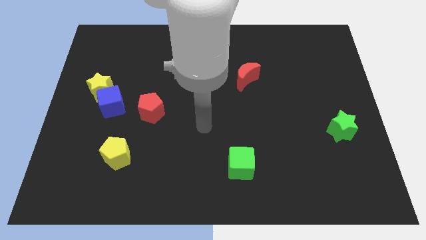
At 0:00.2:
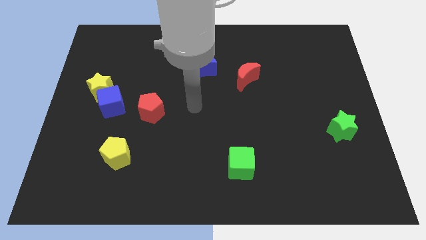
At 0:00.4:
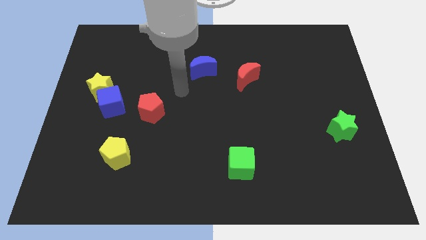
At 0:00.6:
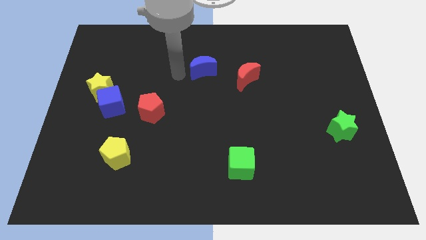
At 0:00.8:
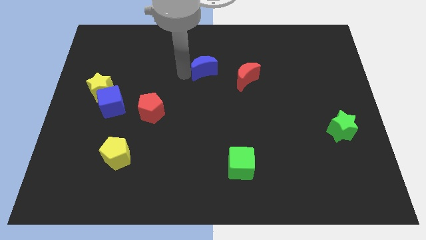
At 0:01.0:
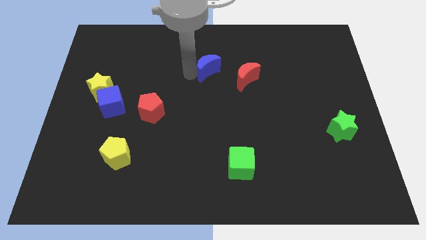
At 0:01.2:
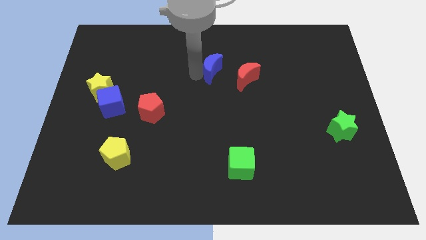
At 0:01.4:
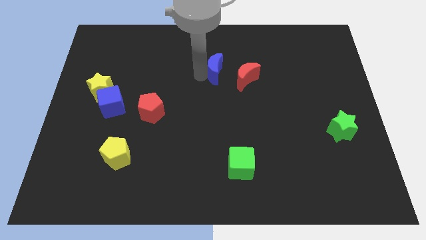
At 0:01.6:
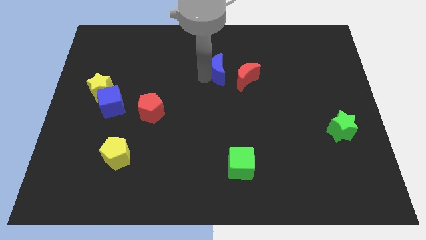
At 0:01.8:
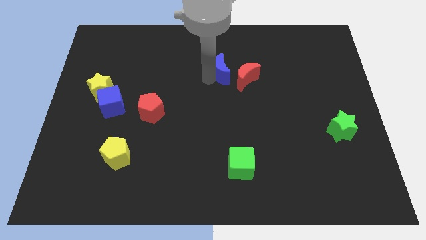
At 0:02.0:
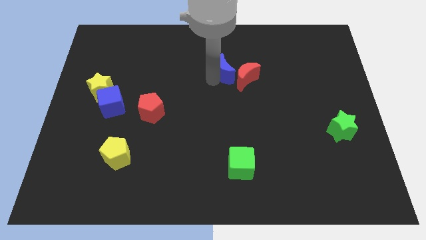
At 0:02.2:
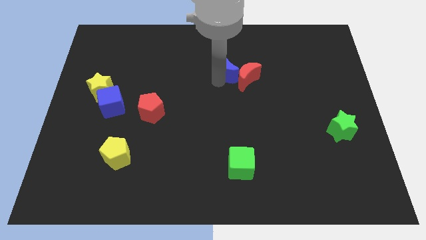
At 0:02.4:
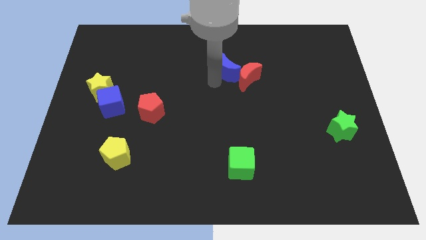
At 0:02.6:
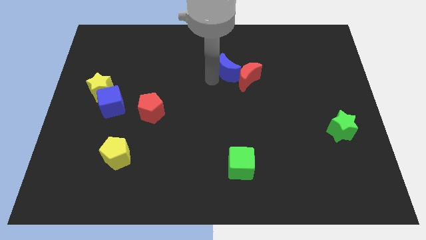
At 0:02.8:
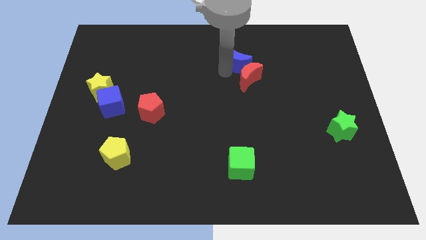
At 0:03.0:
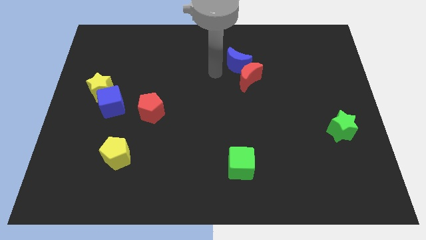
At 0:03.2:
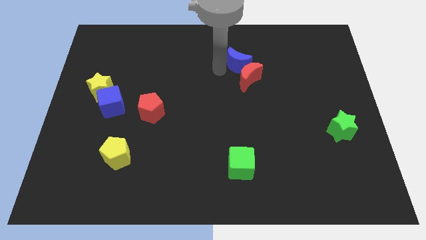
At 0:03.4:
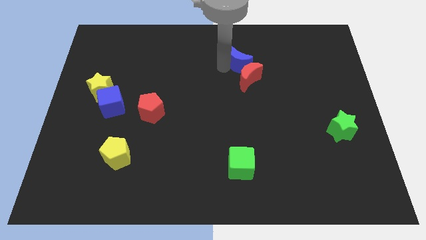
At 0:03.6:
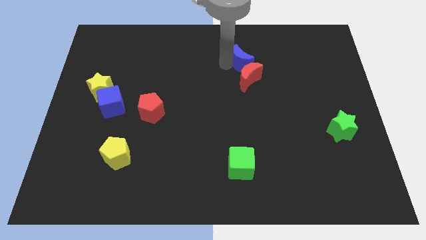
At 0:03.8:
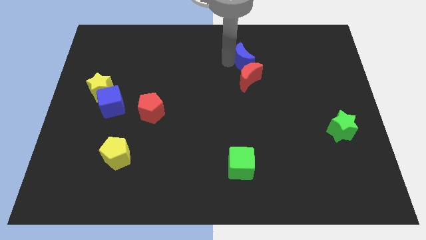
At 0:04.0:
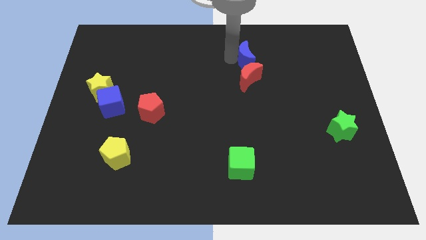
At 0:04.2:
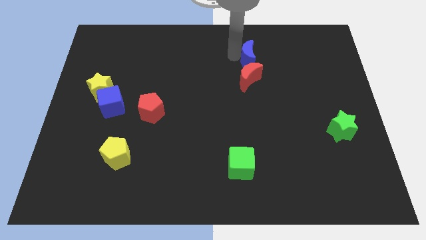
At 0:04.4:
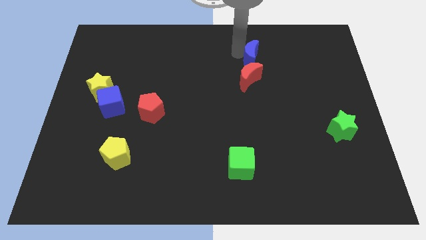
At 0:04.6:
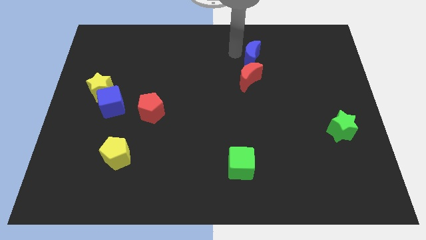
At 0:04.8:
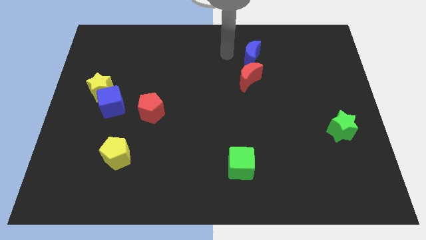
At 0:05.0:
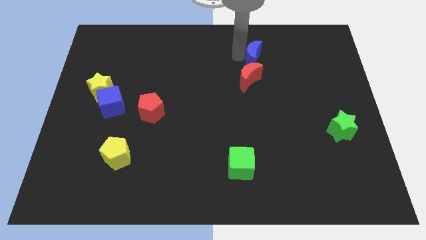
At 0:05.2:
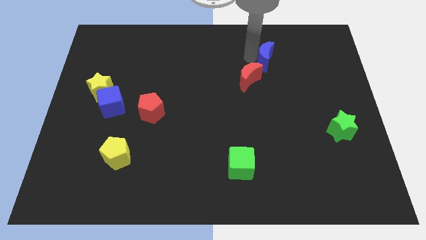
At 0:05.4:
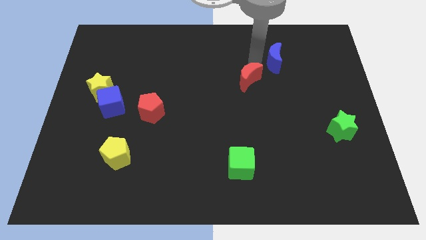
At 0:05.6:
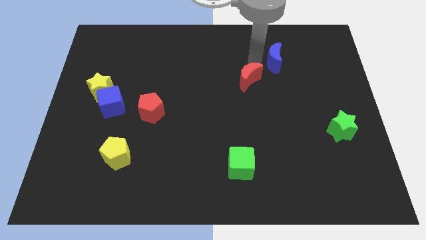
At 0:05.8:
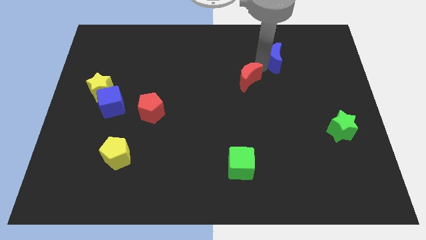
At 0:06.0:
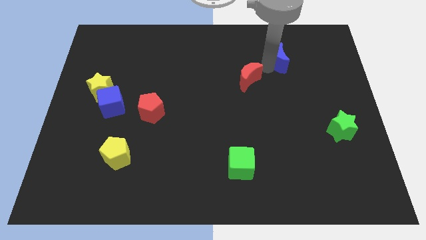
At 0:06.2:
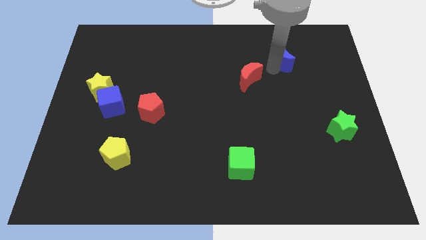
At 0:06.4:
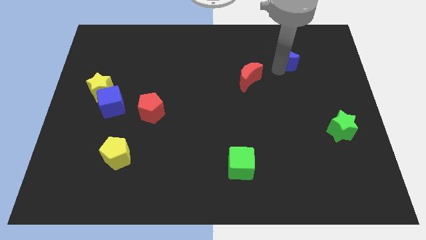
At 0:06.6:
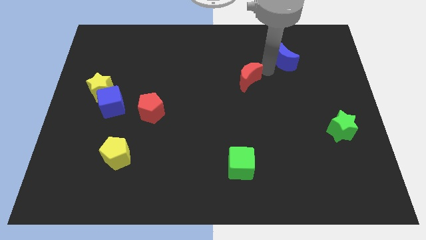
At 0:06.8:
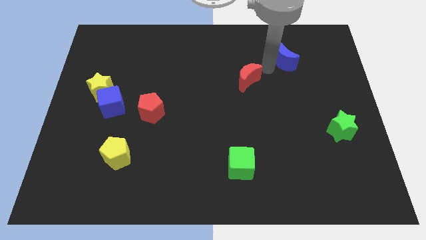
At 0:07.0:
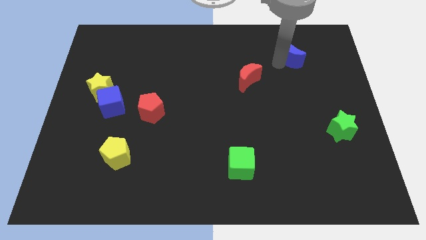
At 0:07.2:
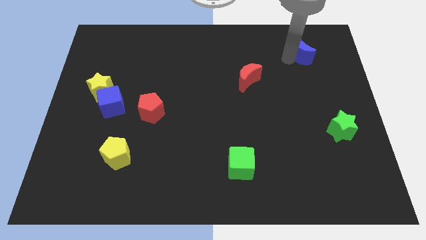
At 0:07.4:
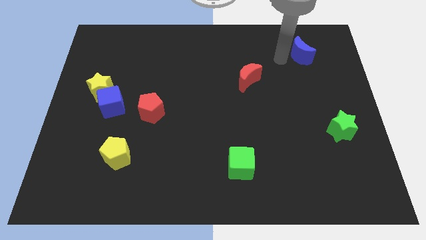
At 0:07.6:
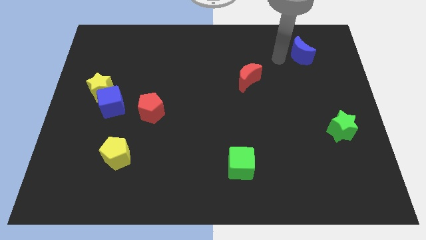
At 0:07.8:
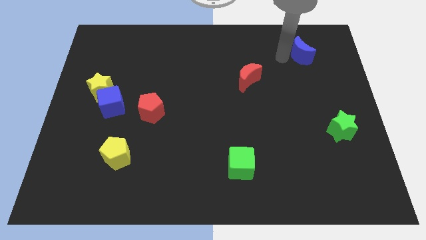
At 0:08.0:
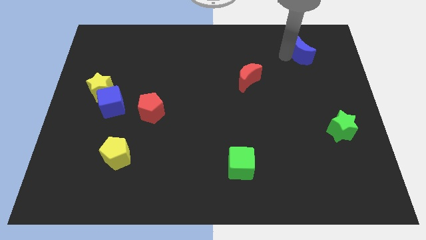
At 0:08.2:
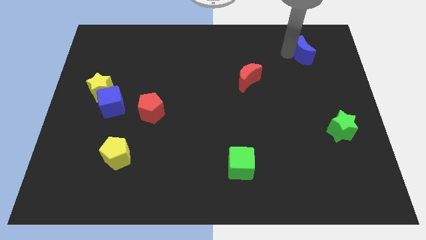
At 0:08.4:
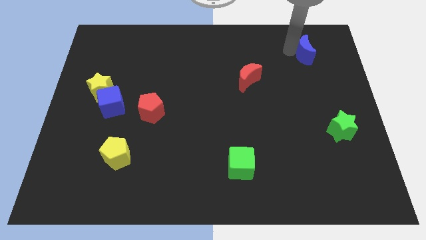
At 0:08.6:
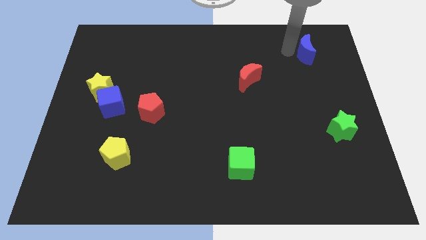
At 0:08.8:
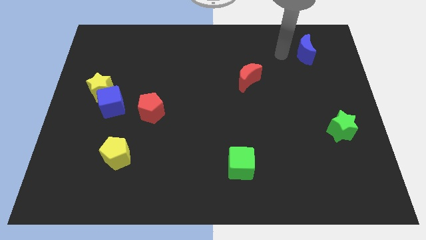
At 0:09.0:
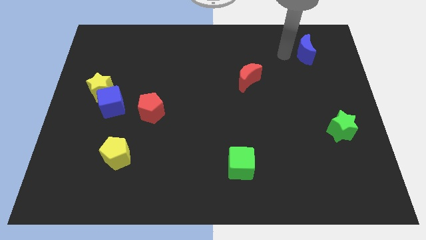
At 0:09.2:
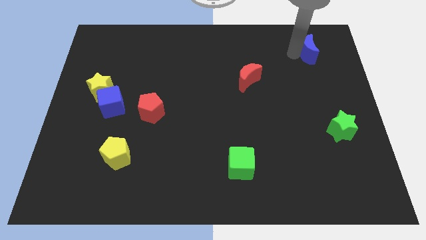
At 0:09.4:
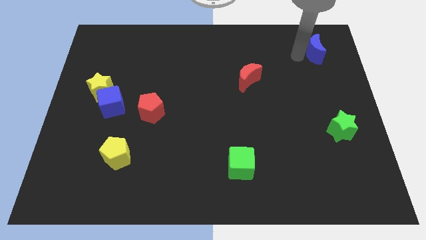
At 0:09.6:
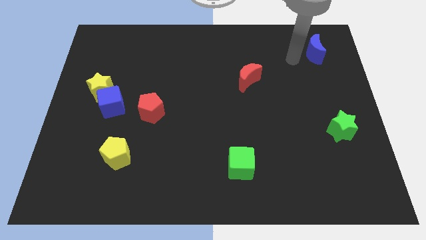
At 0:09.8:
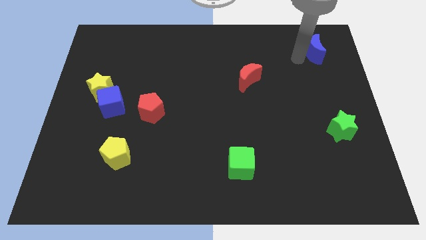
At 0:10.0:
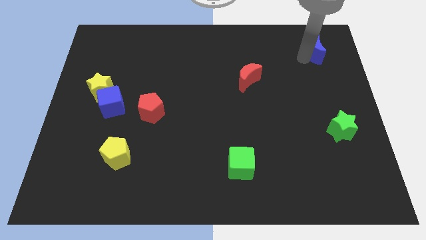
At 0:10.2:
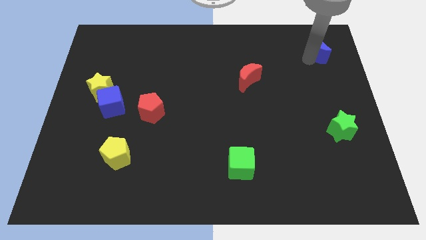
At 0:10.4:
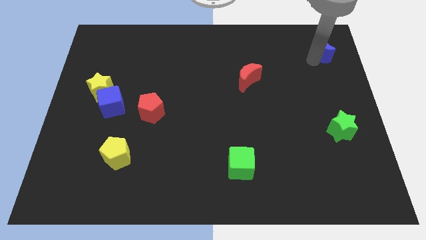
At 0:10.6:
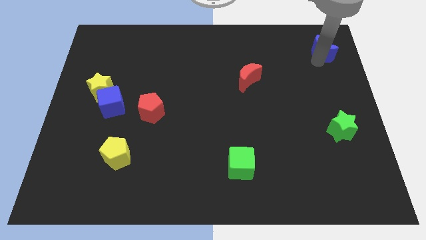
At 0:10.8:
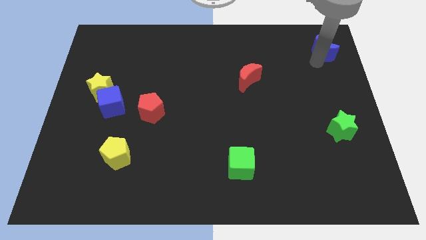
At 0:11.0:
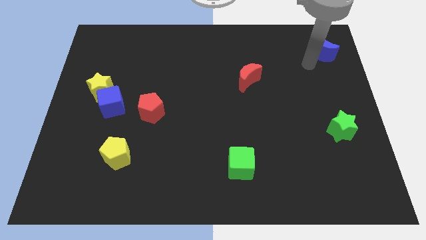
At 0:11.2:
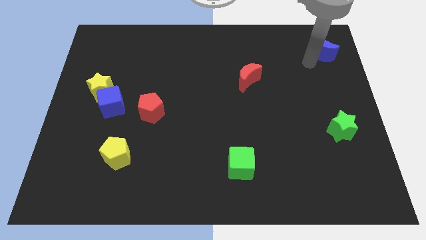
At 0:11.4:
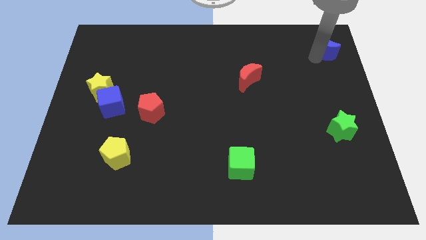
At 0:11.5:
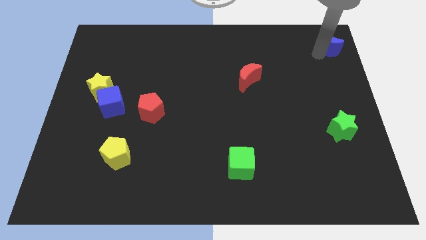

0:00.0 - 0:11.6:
push the blue moon to the upper right corner

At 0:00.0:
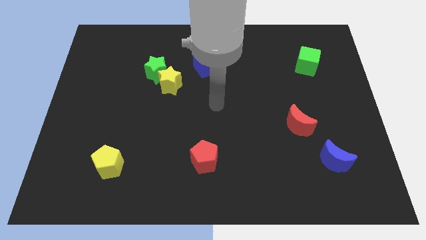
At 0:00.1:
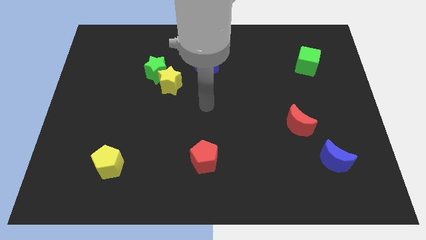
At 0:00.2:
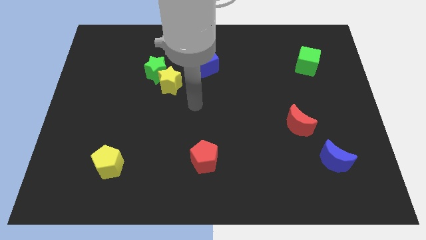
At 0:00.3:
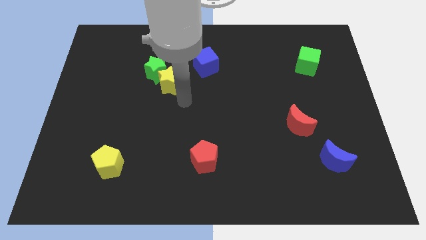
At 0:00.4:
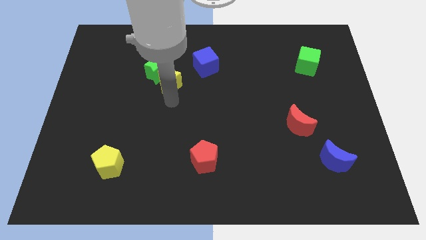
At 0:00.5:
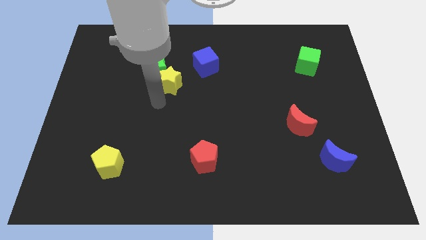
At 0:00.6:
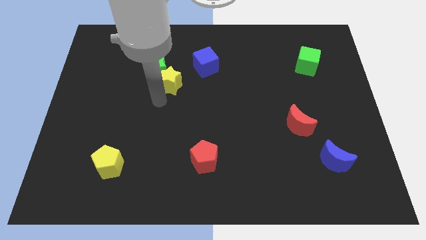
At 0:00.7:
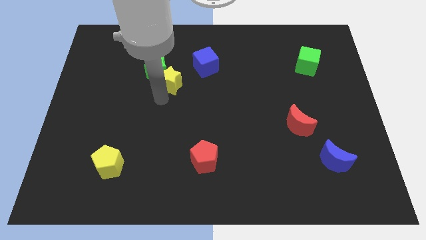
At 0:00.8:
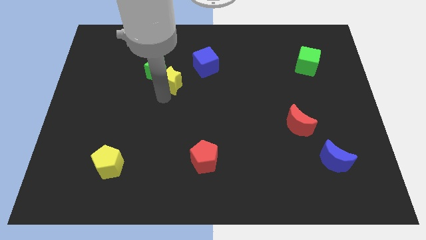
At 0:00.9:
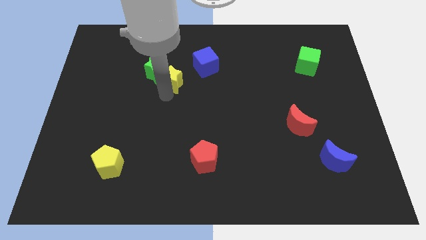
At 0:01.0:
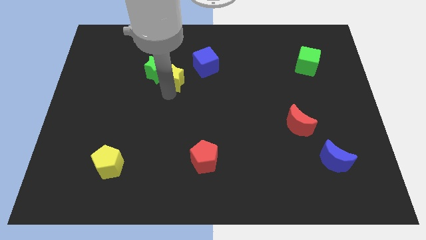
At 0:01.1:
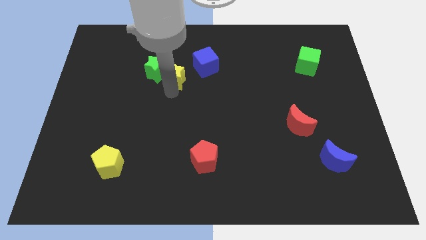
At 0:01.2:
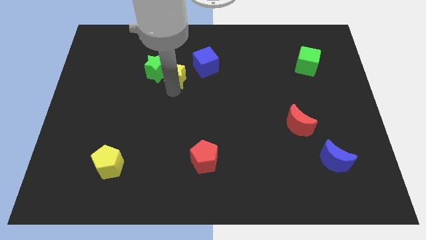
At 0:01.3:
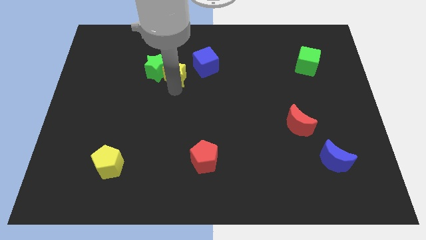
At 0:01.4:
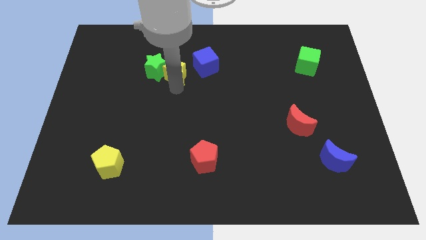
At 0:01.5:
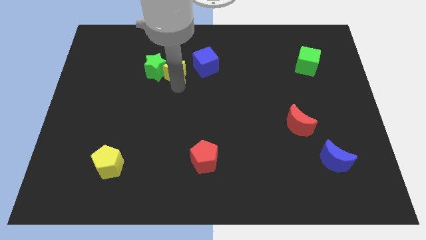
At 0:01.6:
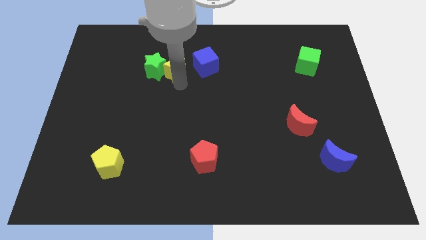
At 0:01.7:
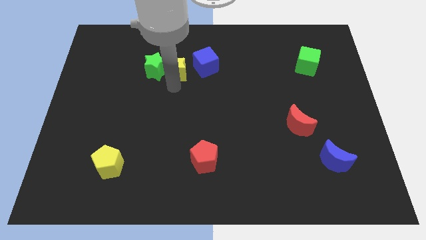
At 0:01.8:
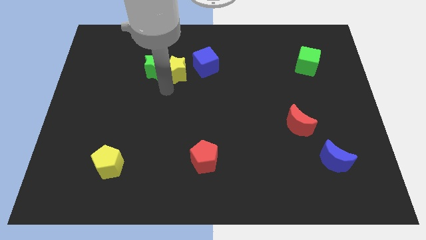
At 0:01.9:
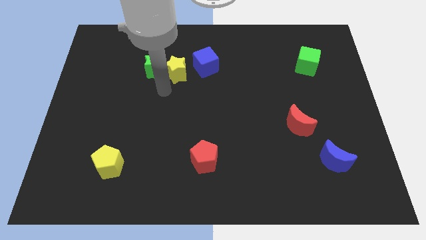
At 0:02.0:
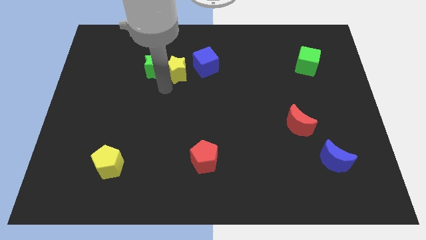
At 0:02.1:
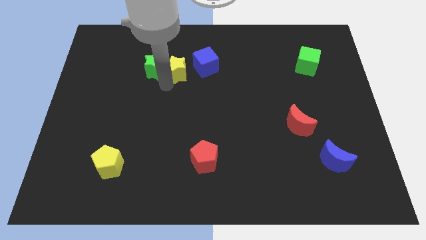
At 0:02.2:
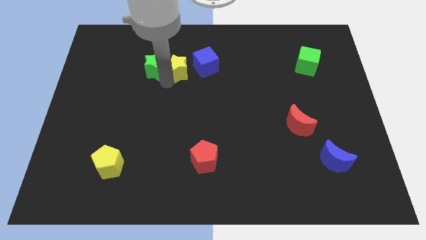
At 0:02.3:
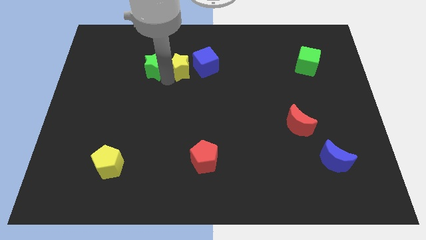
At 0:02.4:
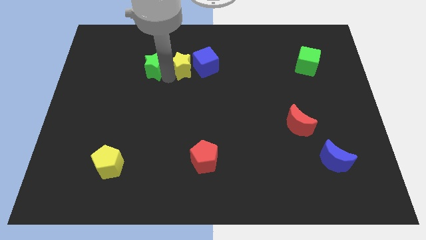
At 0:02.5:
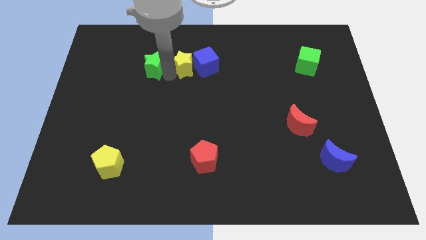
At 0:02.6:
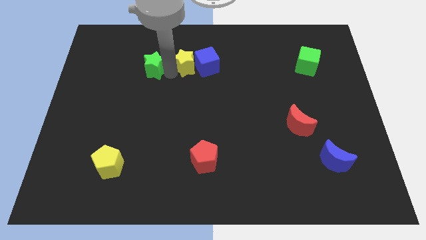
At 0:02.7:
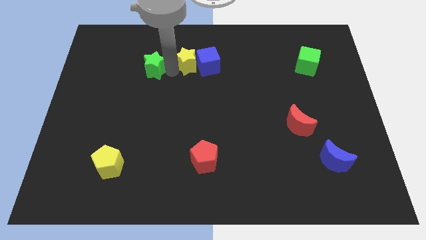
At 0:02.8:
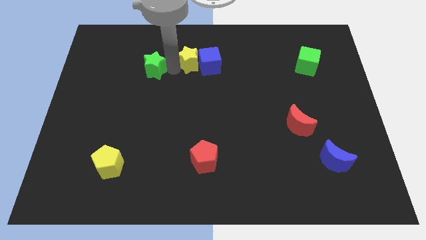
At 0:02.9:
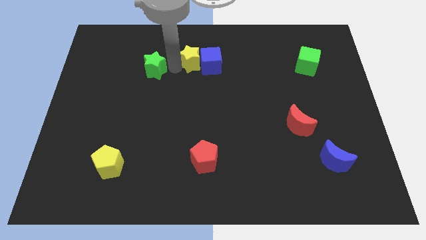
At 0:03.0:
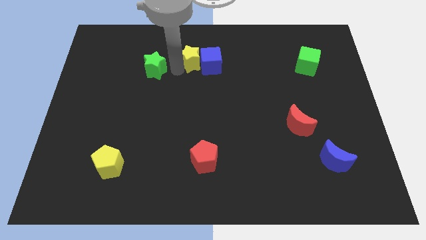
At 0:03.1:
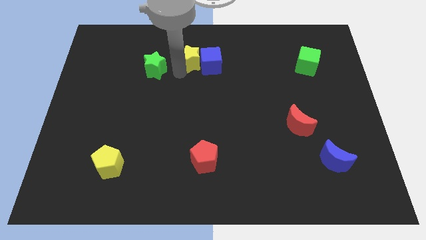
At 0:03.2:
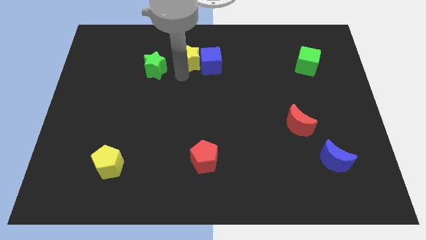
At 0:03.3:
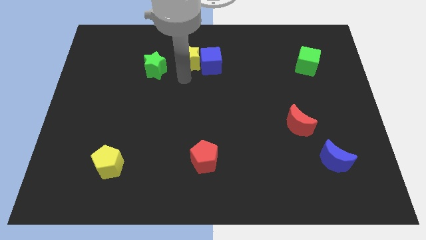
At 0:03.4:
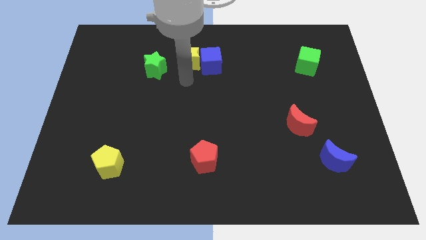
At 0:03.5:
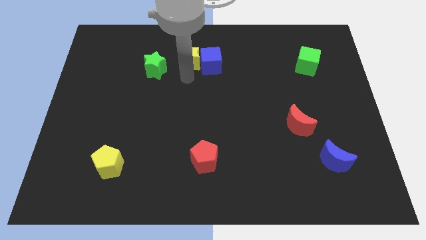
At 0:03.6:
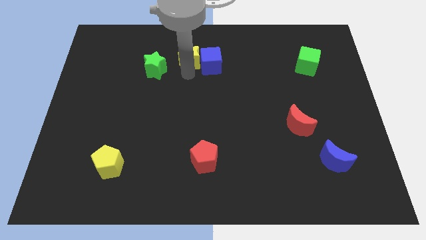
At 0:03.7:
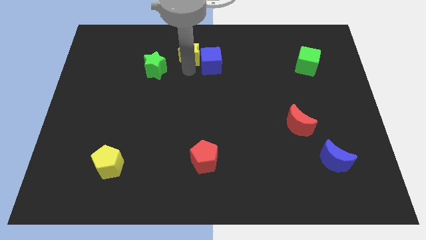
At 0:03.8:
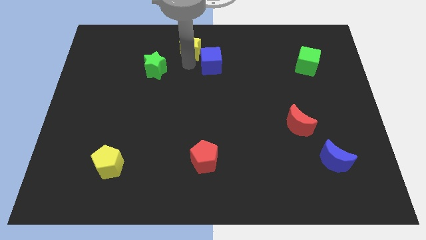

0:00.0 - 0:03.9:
put the yellow star to the top
